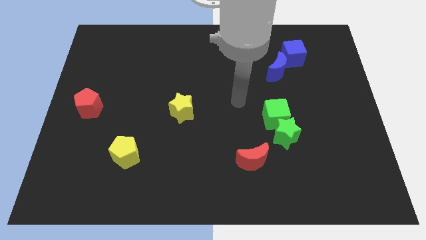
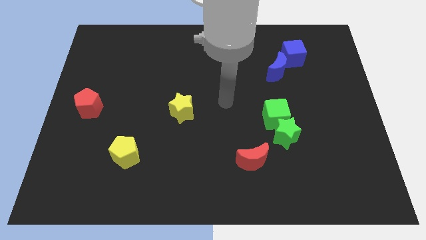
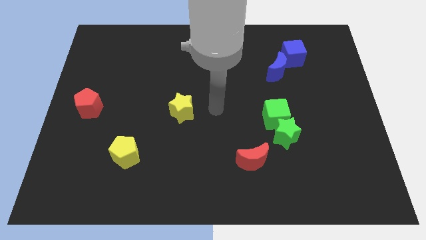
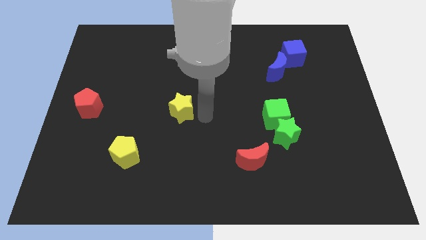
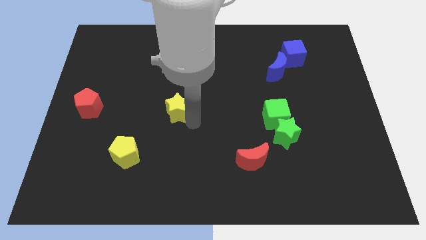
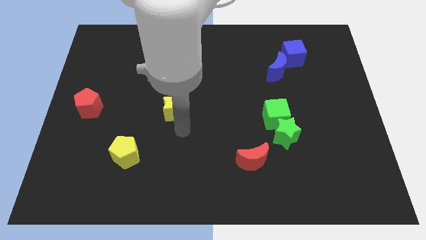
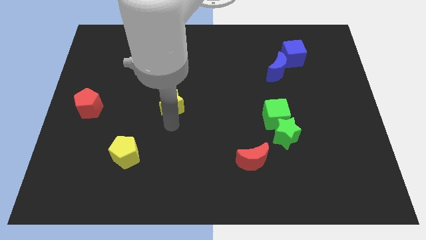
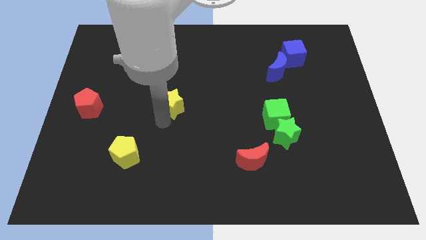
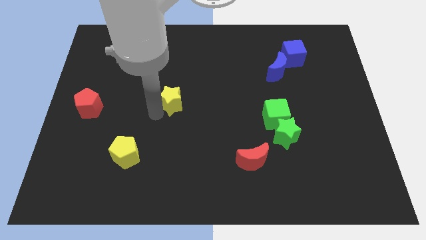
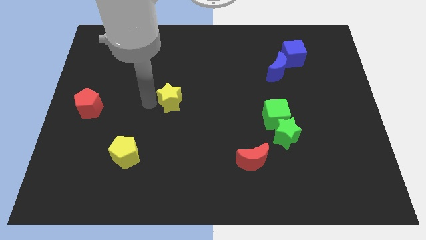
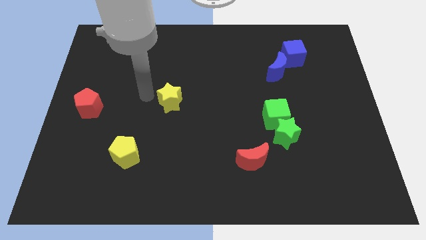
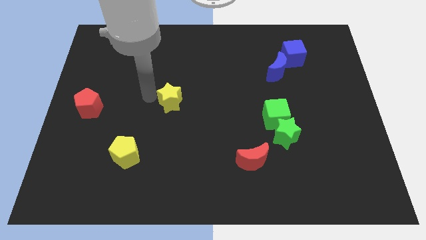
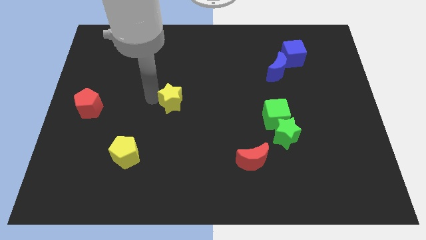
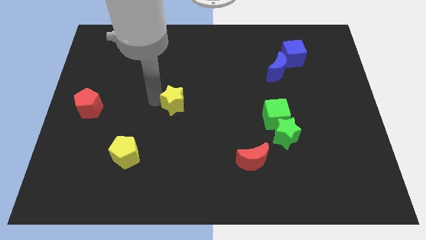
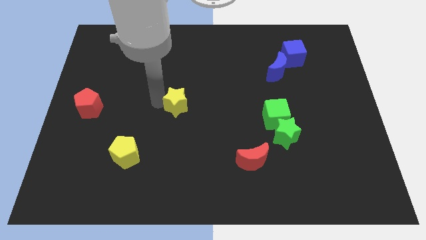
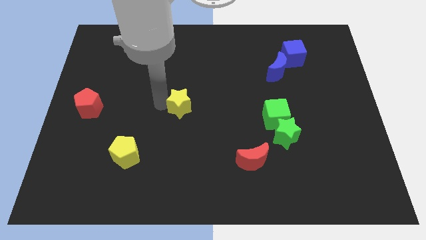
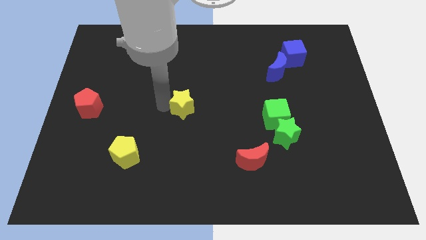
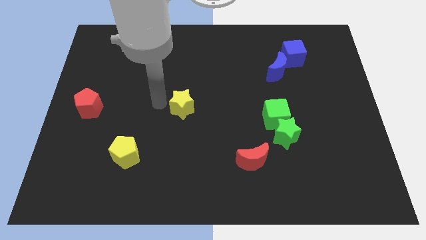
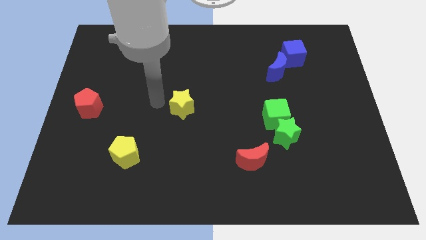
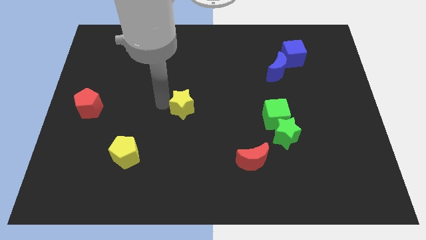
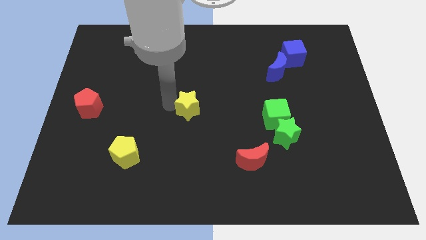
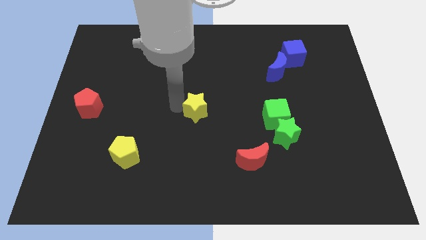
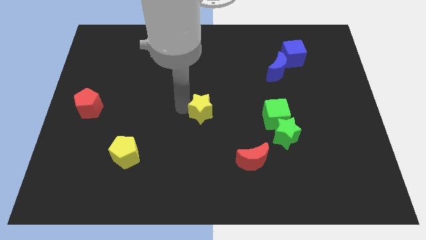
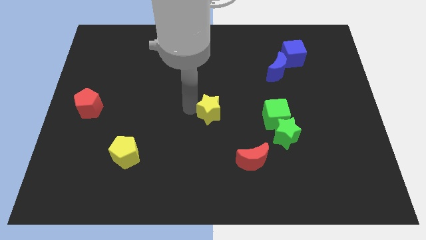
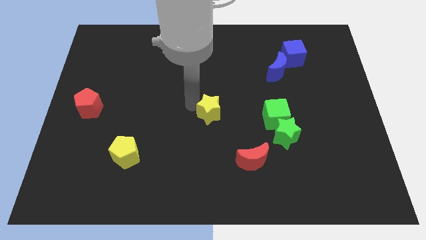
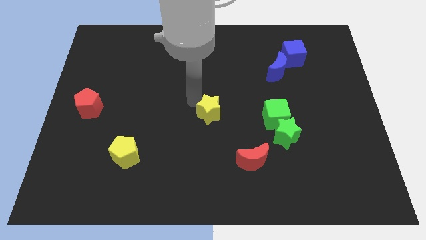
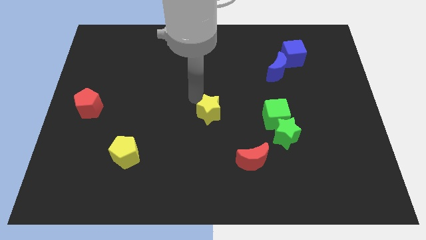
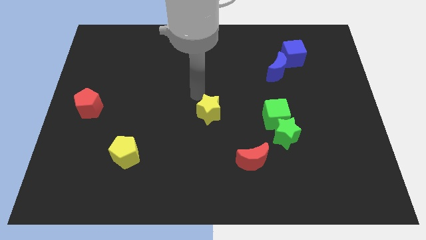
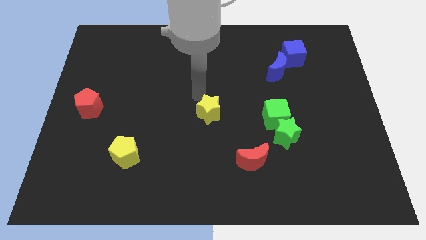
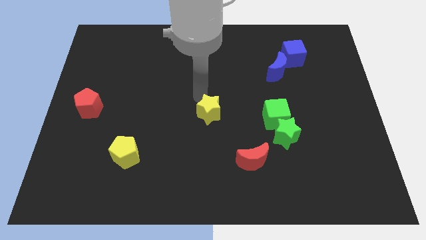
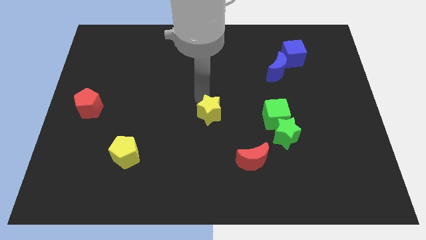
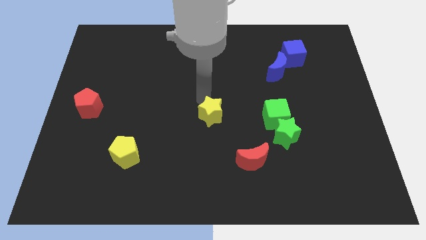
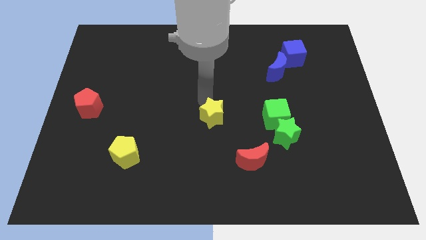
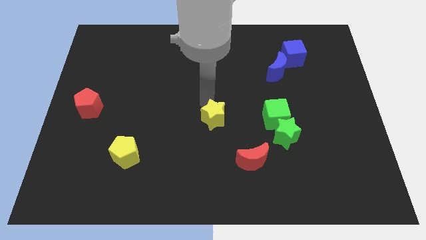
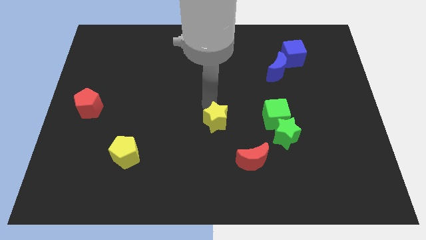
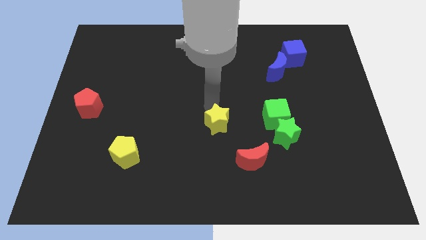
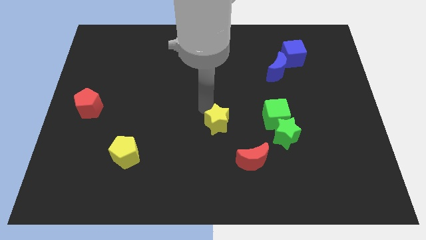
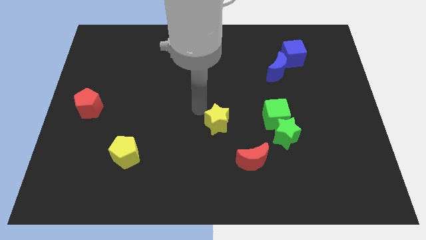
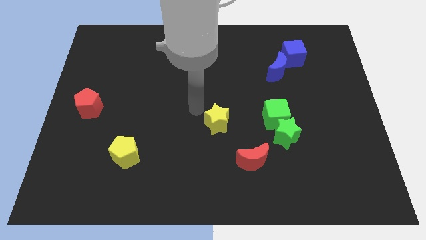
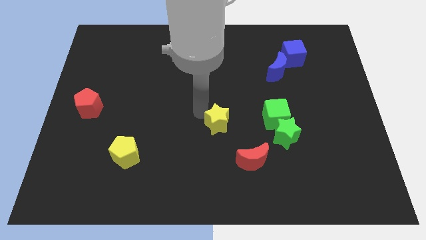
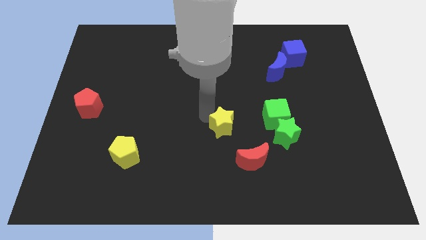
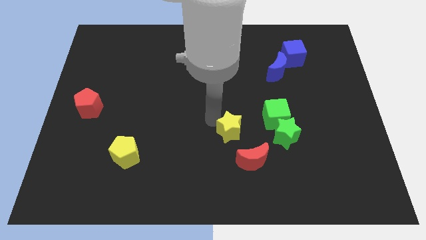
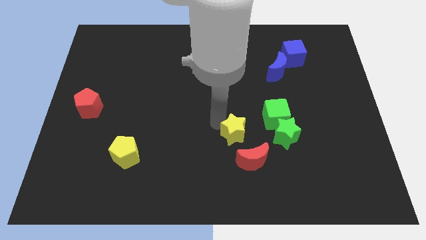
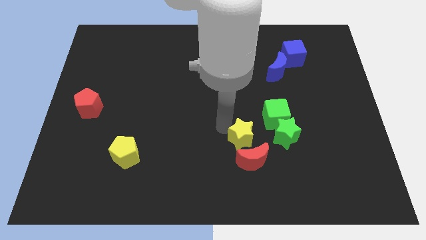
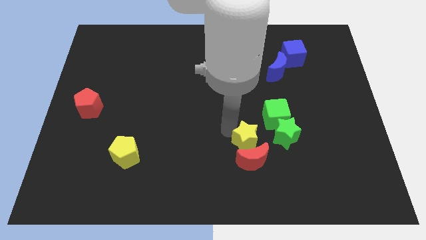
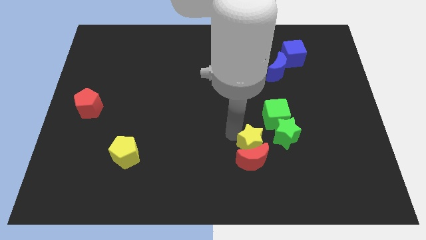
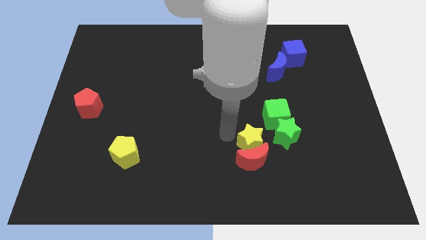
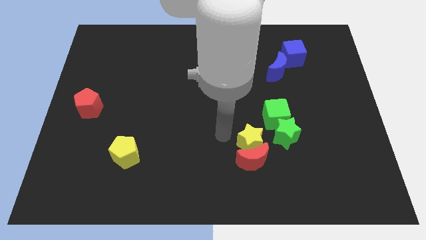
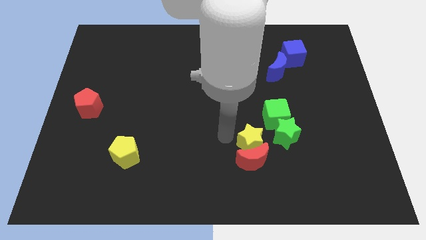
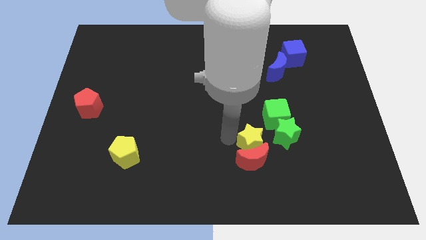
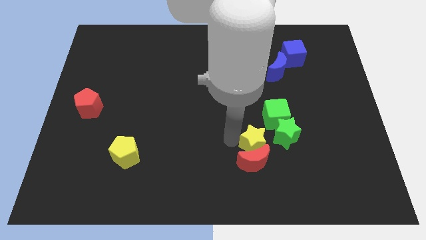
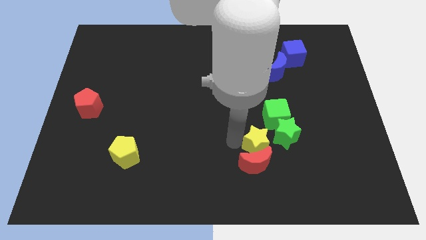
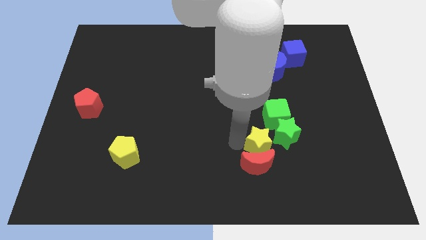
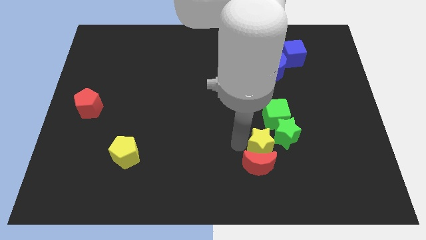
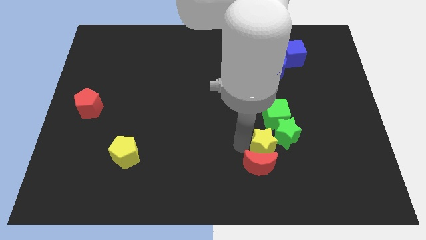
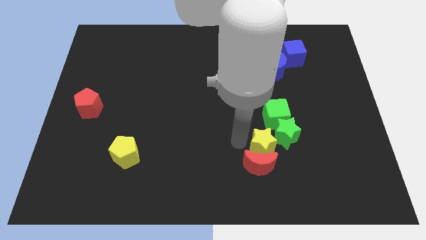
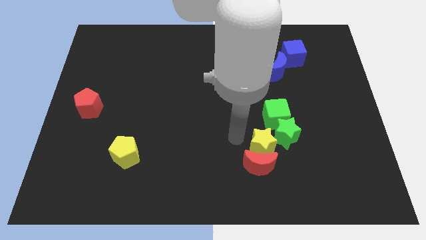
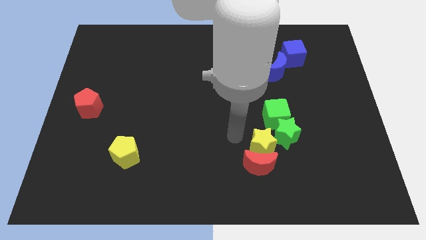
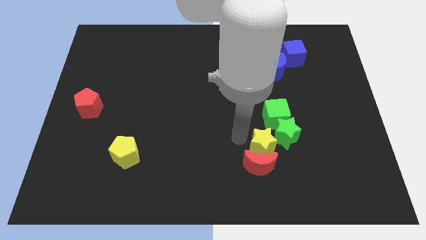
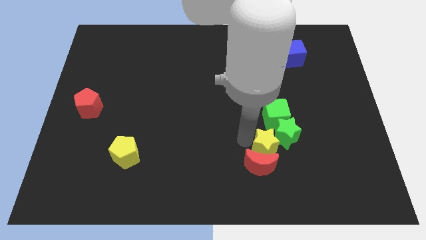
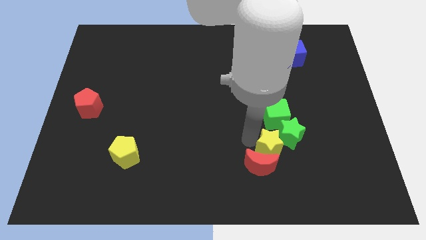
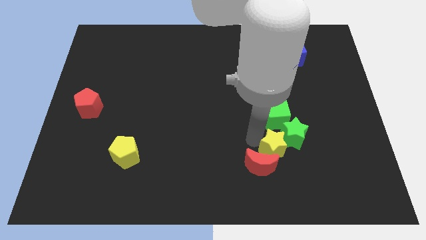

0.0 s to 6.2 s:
slide the yellow star right of the red moon

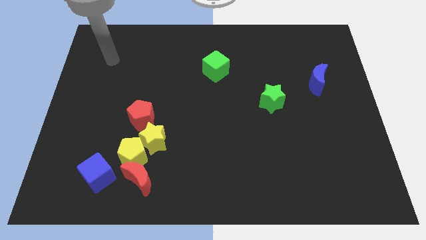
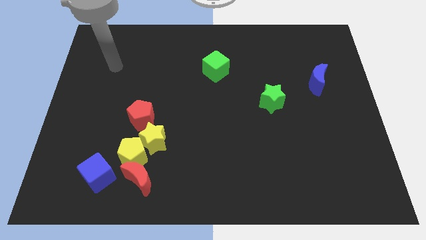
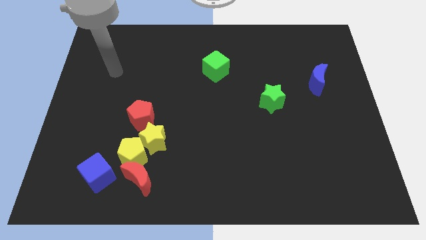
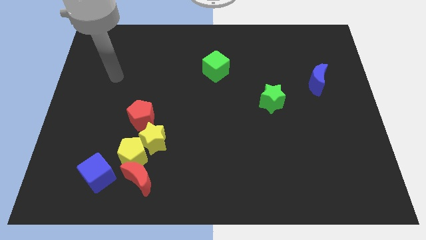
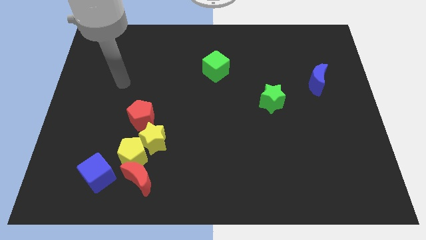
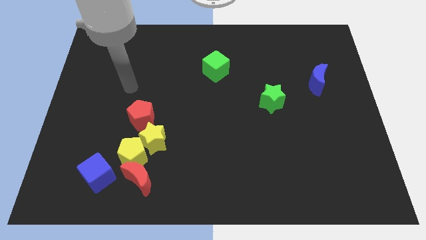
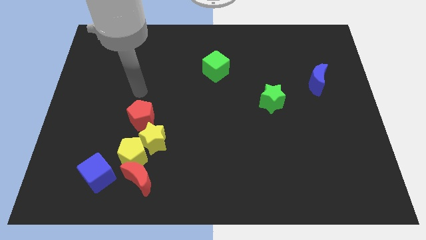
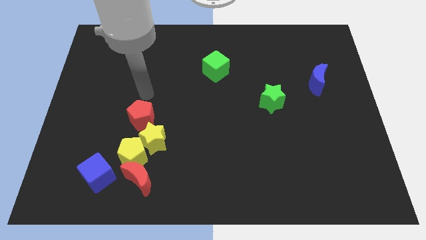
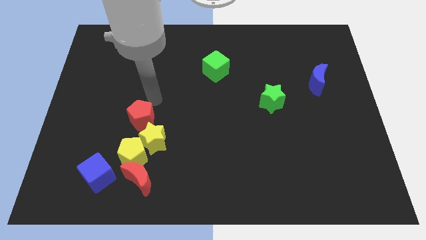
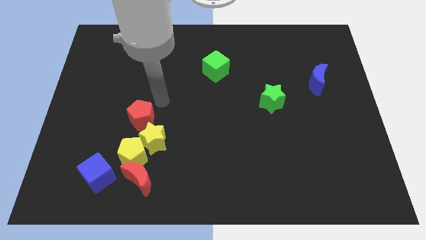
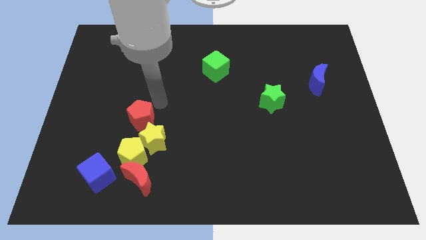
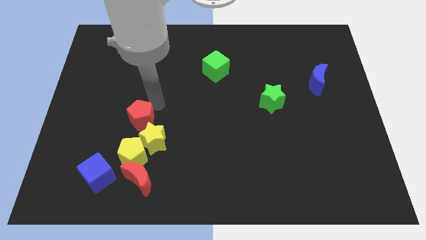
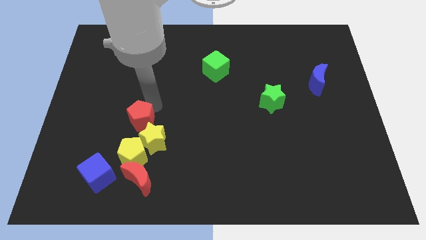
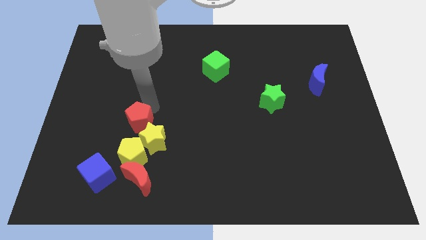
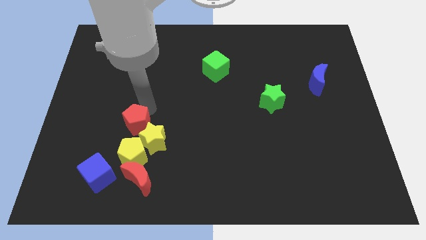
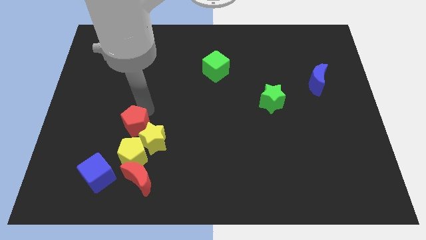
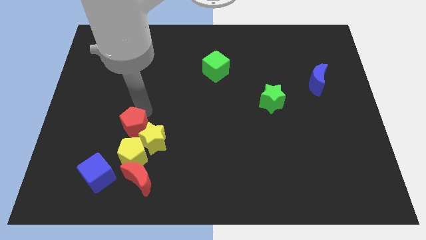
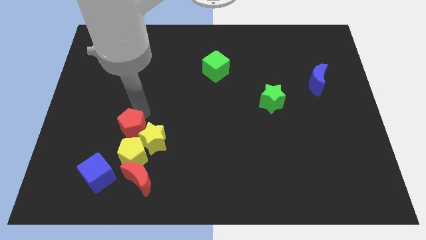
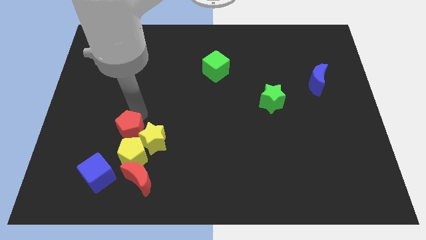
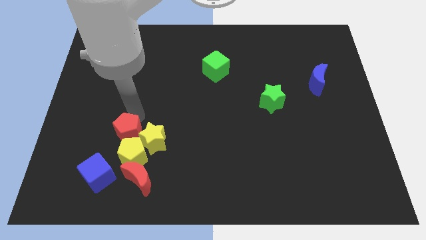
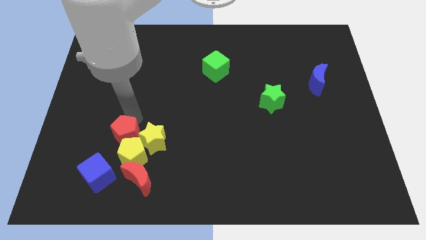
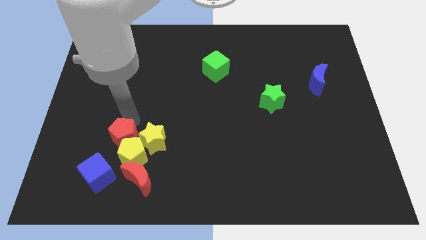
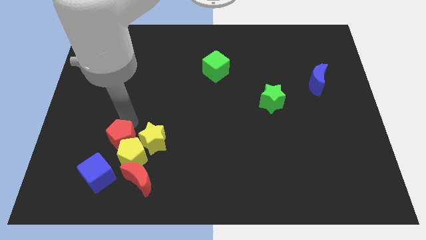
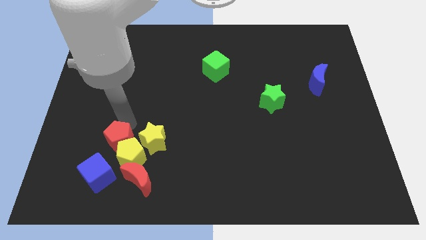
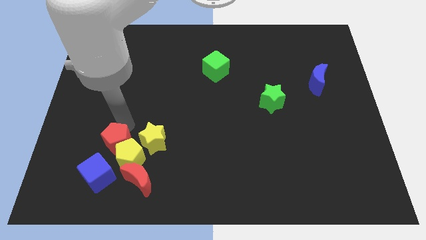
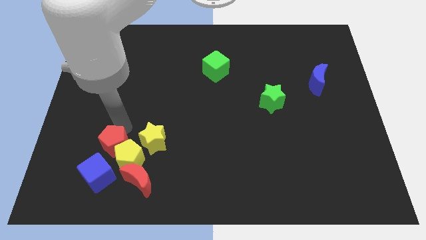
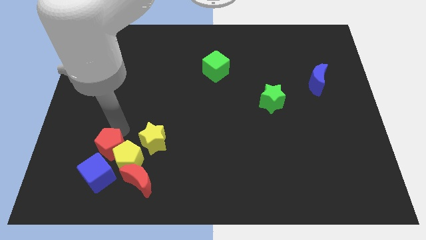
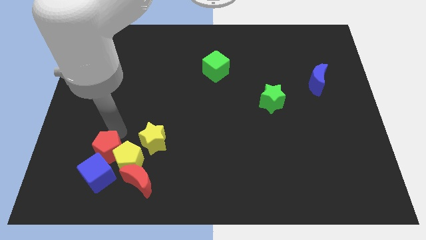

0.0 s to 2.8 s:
slide the red pentagon diagonally down and to the left of the yellow star
